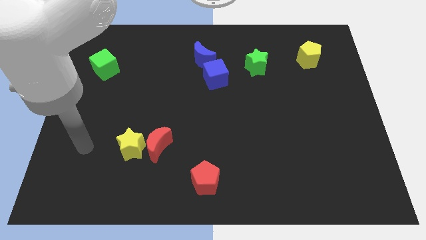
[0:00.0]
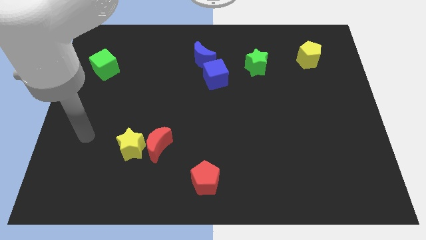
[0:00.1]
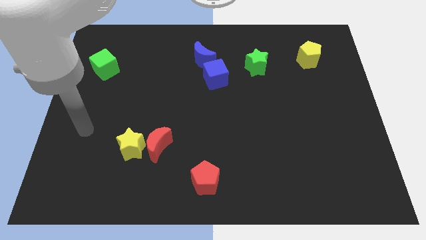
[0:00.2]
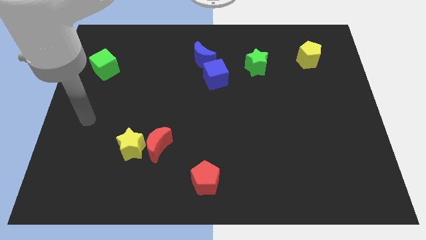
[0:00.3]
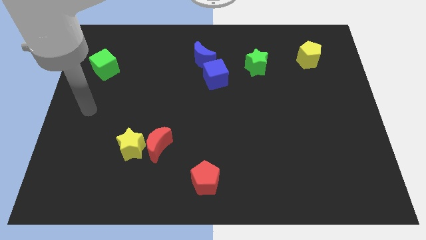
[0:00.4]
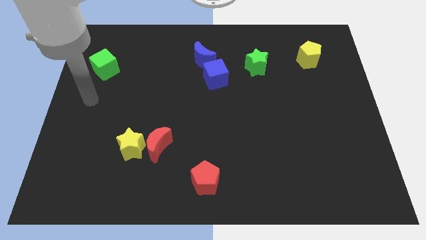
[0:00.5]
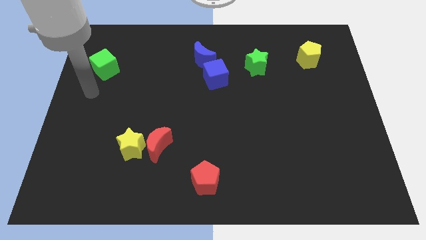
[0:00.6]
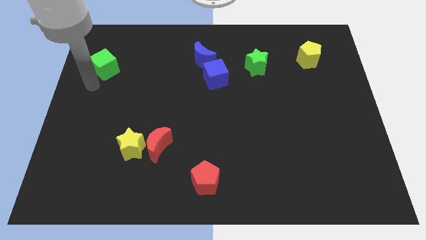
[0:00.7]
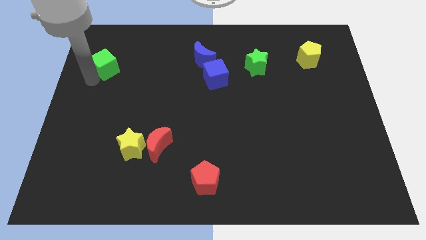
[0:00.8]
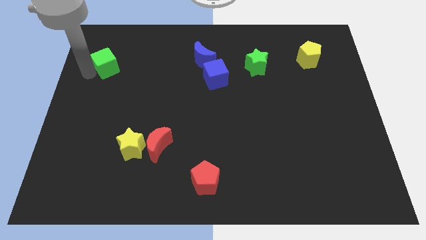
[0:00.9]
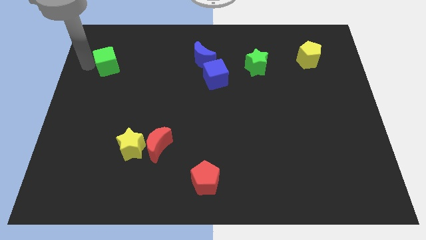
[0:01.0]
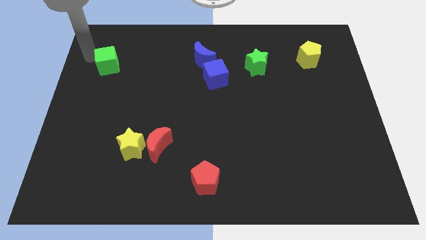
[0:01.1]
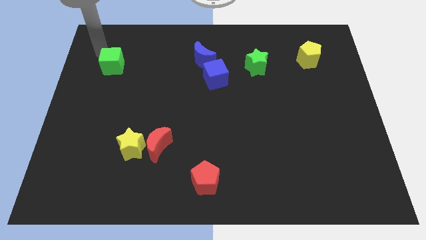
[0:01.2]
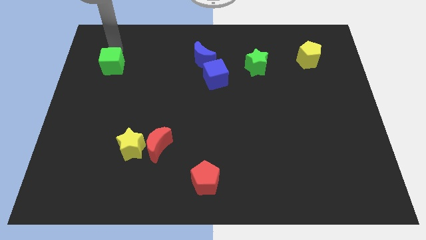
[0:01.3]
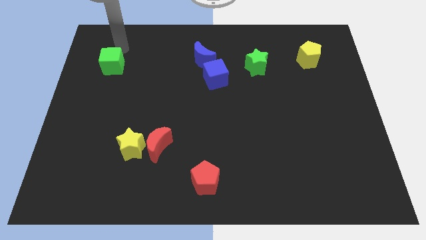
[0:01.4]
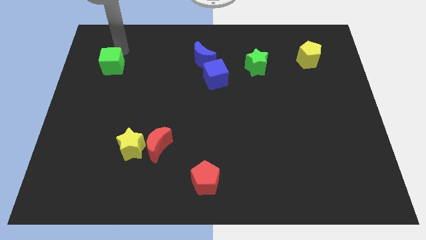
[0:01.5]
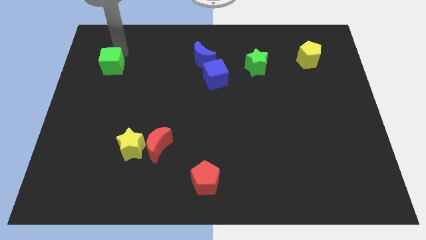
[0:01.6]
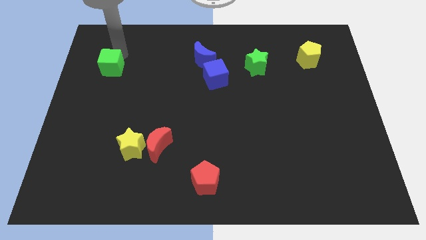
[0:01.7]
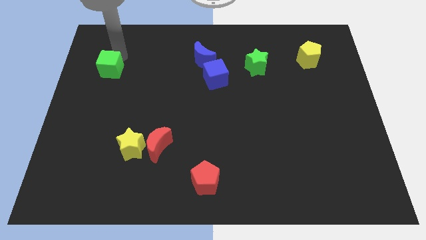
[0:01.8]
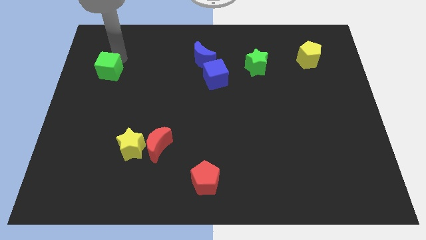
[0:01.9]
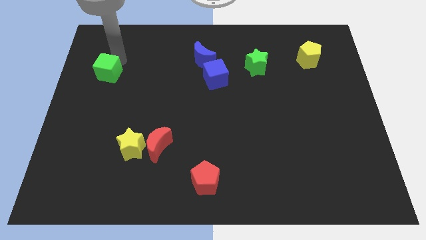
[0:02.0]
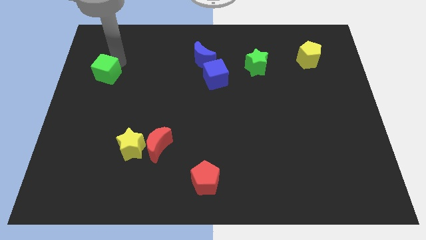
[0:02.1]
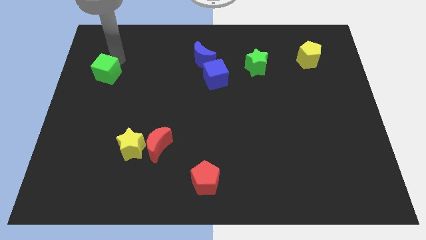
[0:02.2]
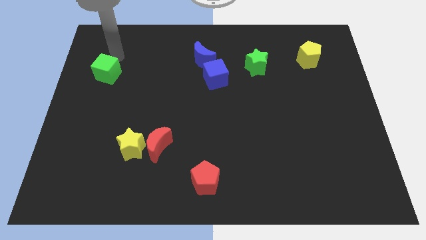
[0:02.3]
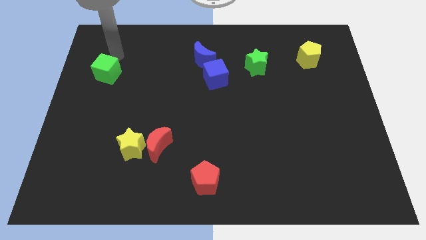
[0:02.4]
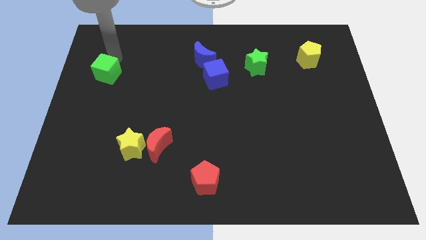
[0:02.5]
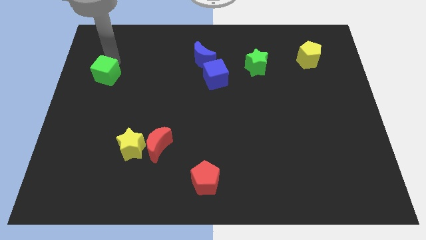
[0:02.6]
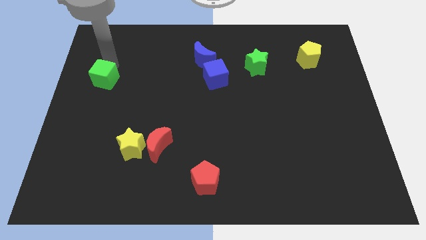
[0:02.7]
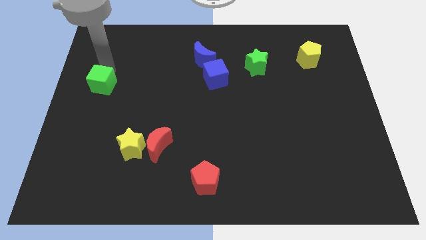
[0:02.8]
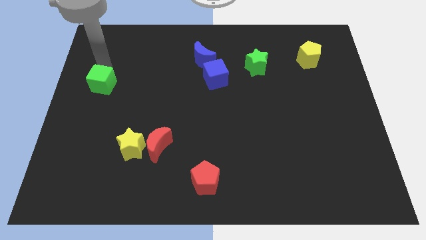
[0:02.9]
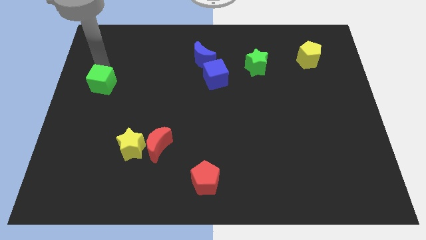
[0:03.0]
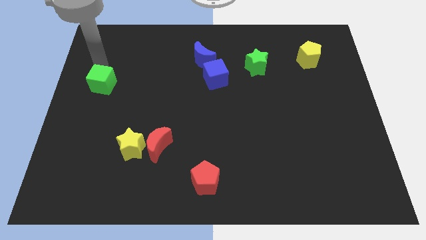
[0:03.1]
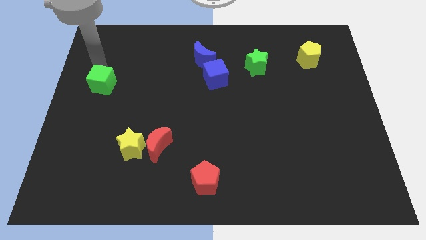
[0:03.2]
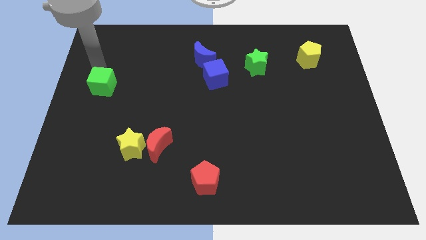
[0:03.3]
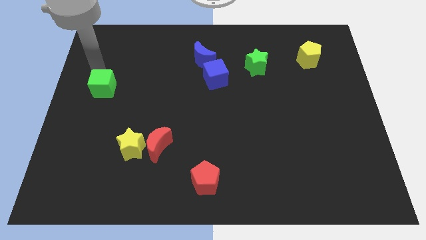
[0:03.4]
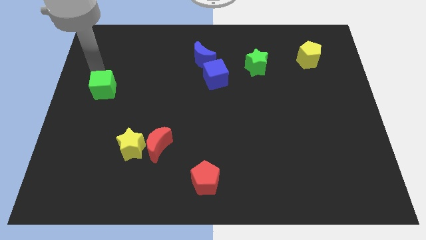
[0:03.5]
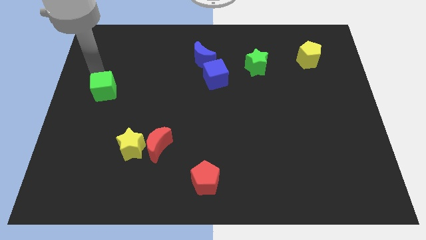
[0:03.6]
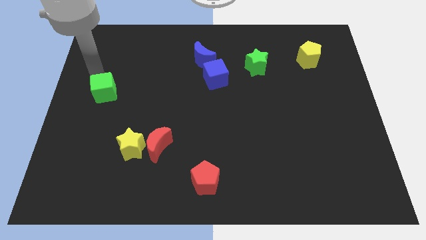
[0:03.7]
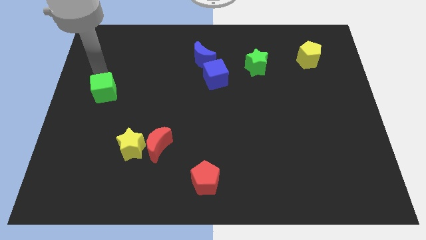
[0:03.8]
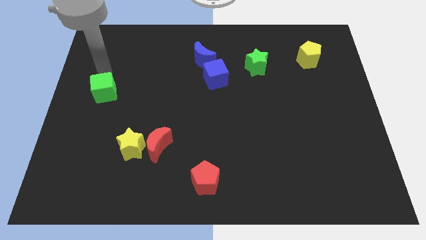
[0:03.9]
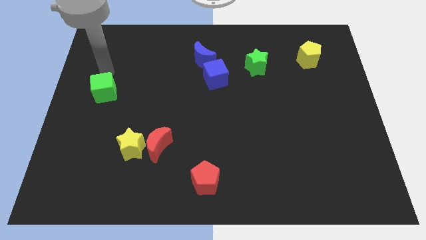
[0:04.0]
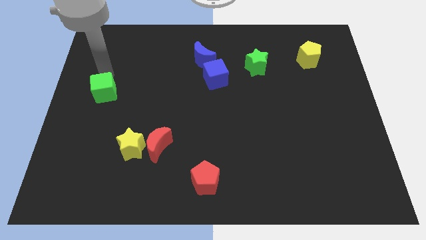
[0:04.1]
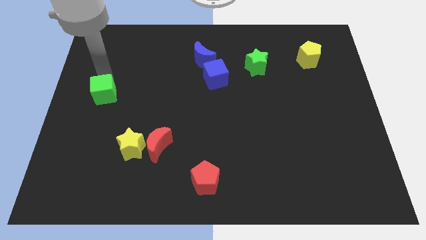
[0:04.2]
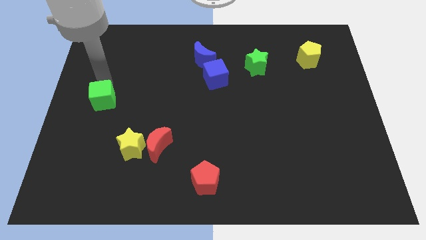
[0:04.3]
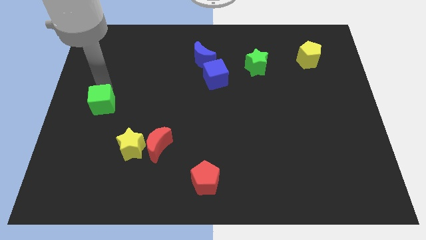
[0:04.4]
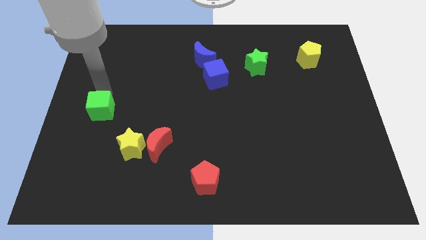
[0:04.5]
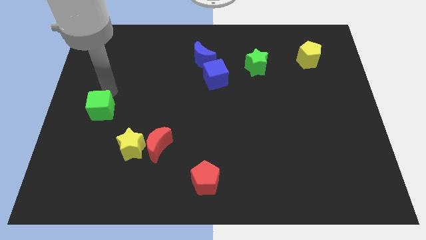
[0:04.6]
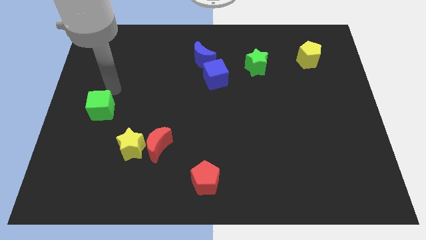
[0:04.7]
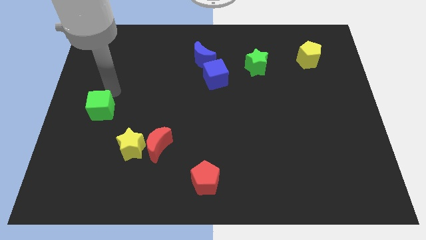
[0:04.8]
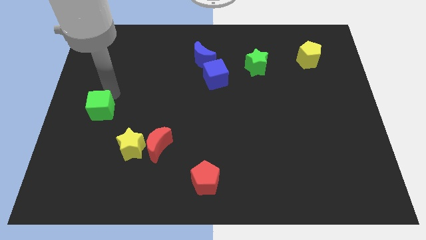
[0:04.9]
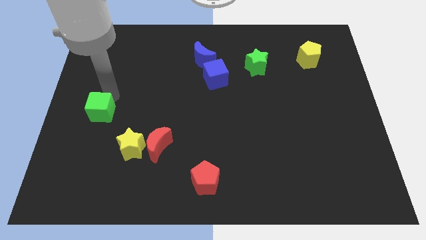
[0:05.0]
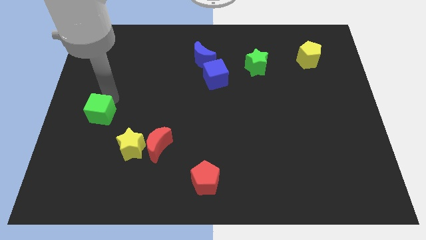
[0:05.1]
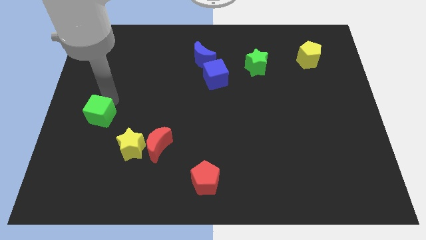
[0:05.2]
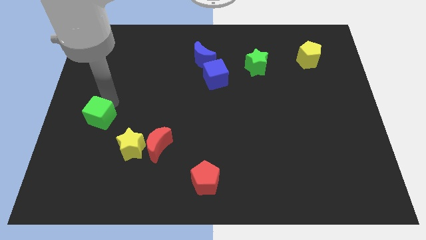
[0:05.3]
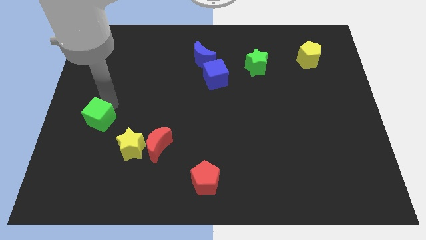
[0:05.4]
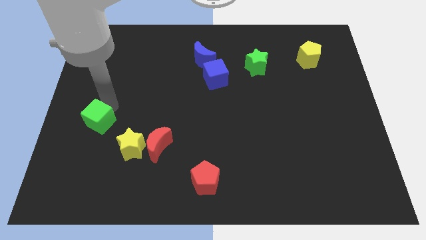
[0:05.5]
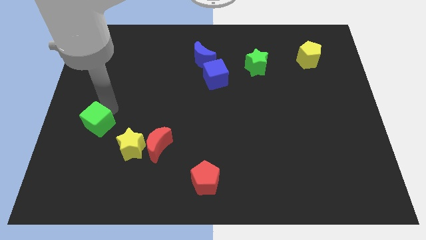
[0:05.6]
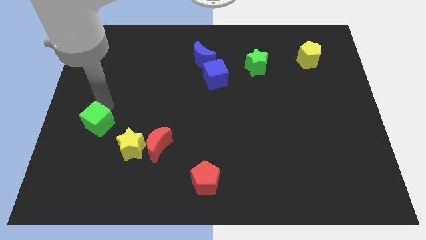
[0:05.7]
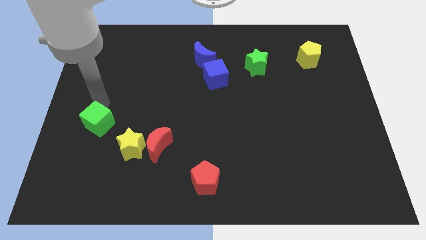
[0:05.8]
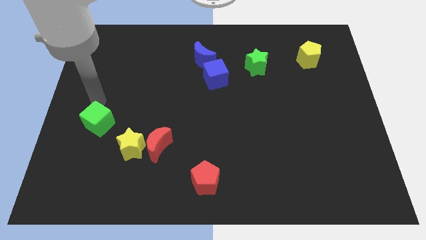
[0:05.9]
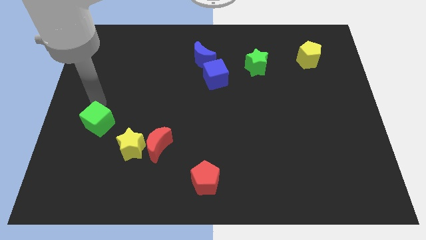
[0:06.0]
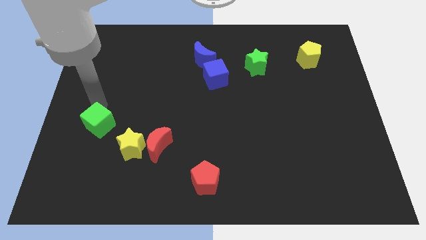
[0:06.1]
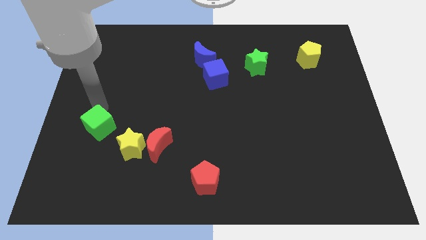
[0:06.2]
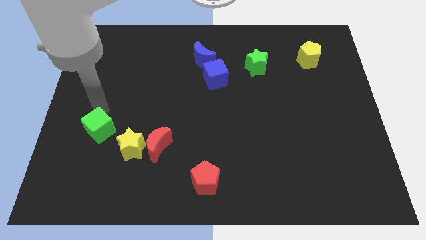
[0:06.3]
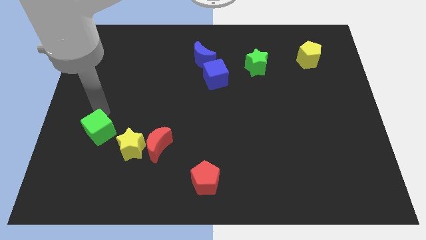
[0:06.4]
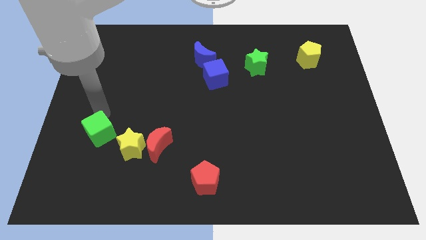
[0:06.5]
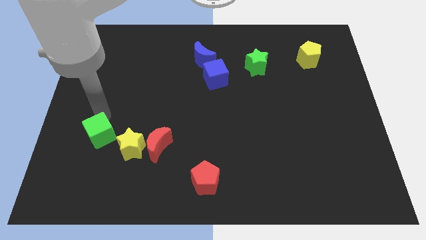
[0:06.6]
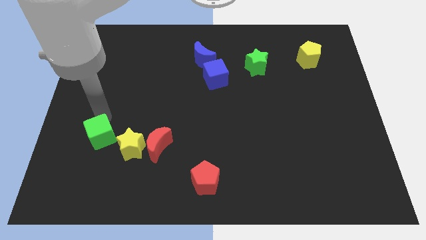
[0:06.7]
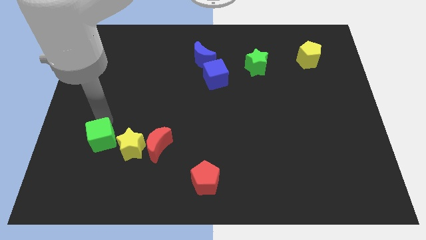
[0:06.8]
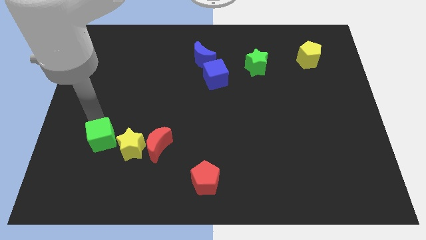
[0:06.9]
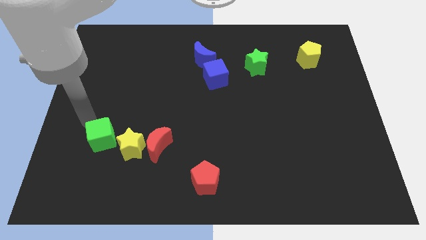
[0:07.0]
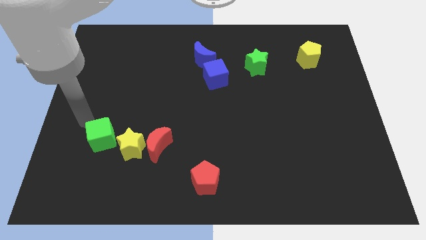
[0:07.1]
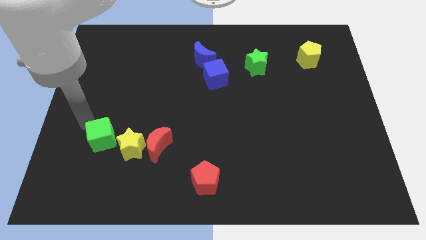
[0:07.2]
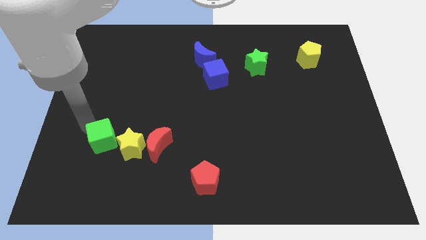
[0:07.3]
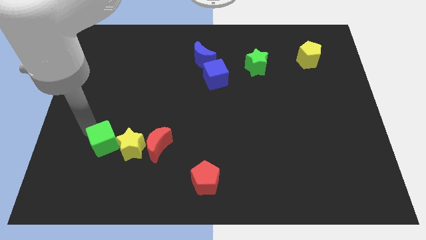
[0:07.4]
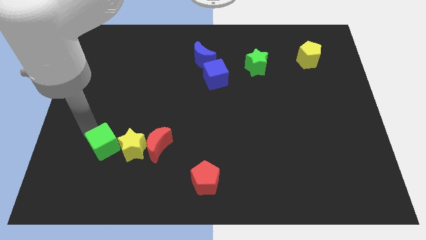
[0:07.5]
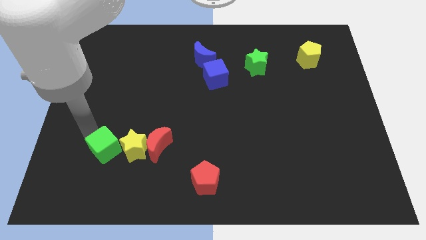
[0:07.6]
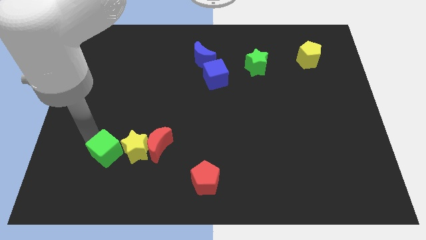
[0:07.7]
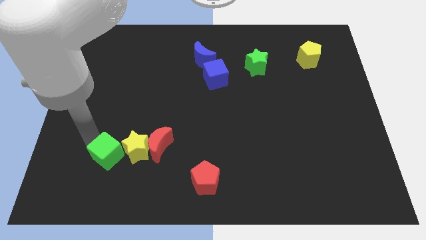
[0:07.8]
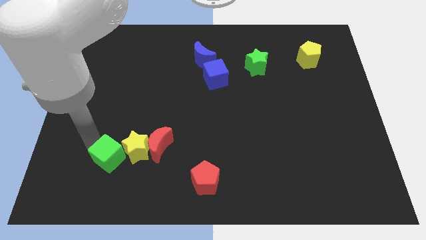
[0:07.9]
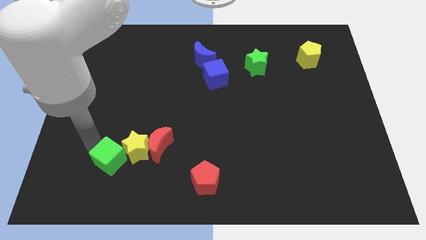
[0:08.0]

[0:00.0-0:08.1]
put the green cube diagonally down and to the left of the red moon
